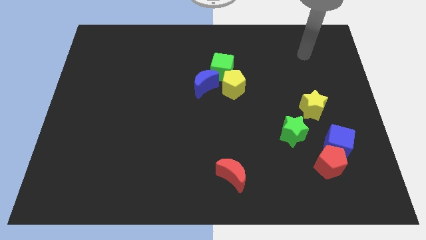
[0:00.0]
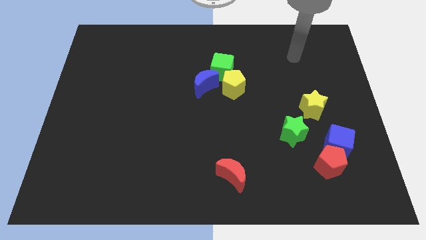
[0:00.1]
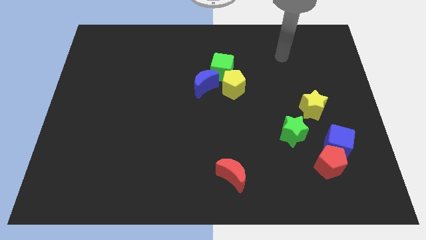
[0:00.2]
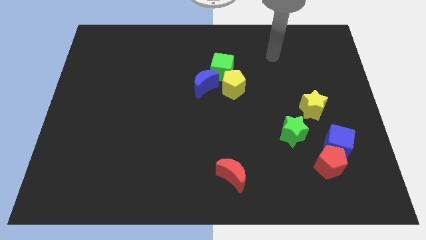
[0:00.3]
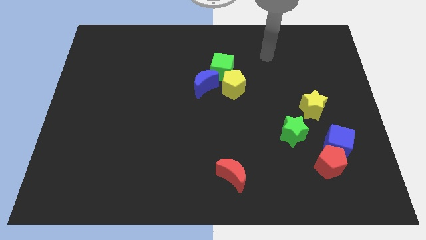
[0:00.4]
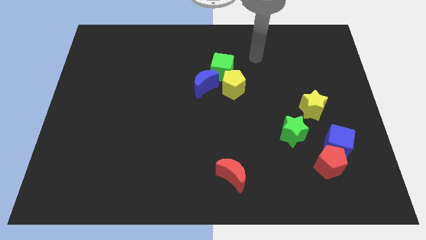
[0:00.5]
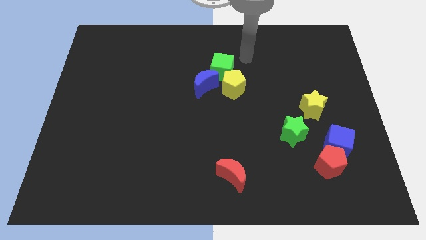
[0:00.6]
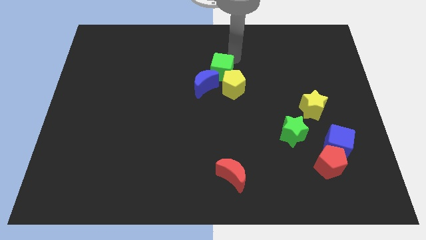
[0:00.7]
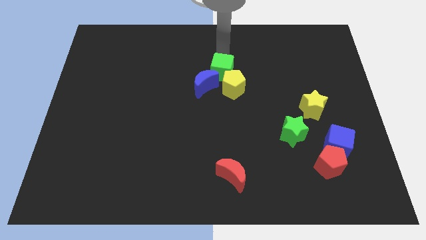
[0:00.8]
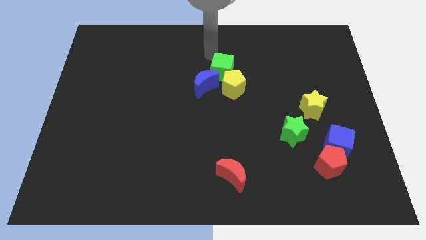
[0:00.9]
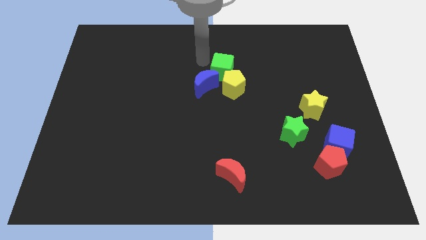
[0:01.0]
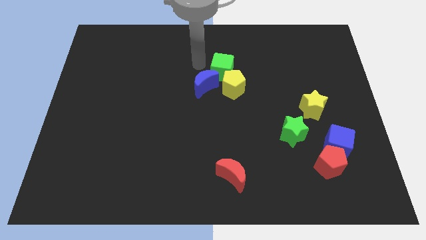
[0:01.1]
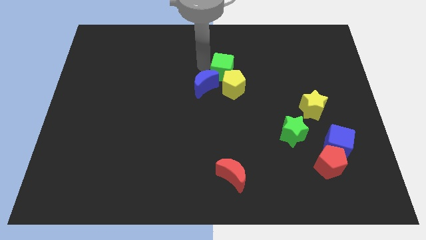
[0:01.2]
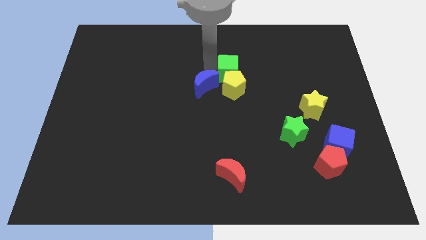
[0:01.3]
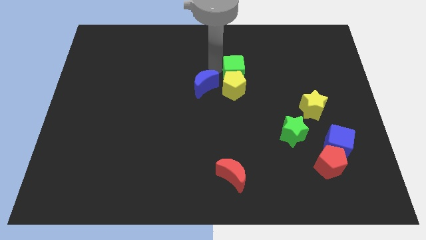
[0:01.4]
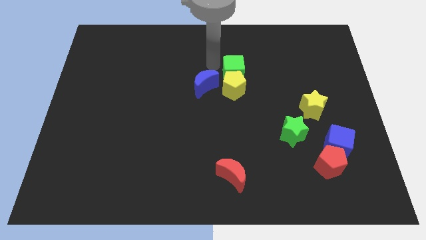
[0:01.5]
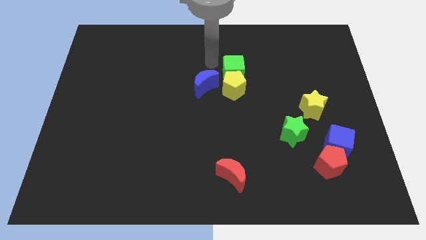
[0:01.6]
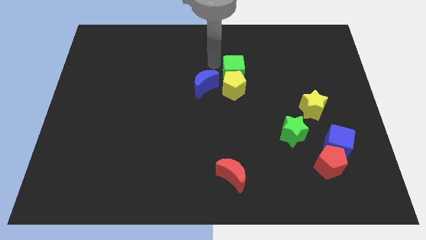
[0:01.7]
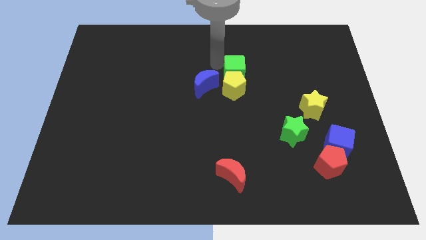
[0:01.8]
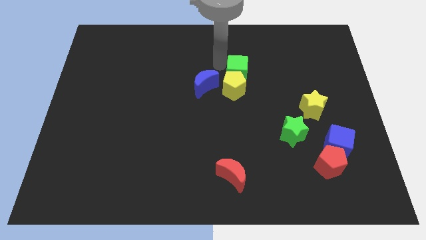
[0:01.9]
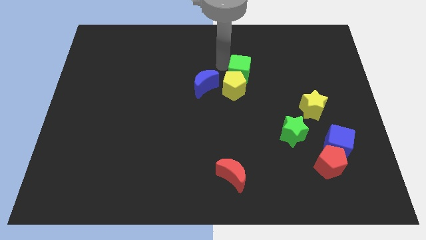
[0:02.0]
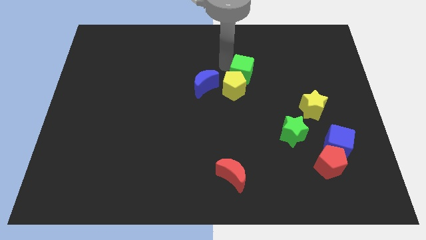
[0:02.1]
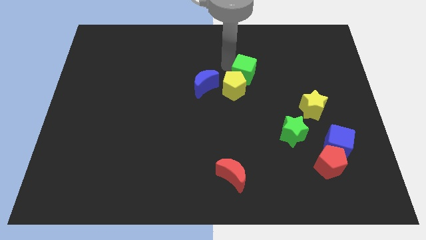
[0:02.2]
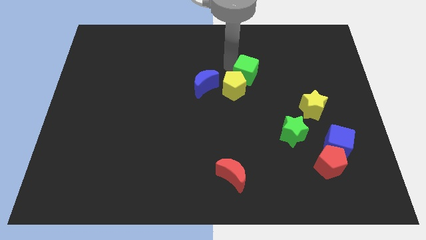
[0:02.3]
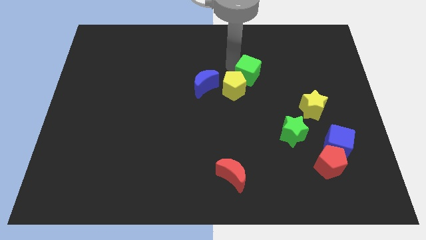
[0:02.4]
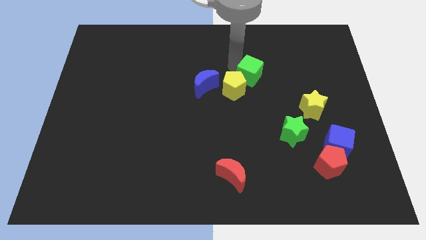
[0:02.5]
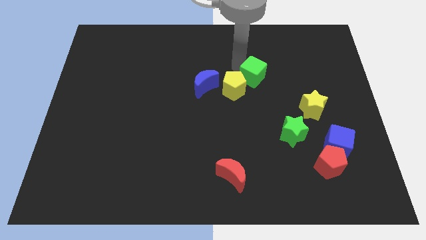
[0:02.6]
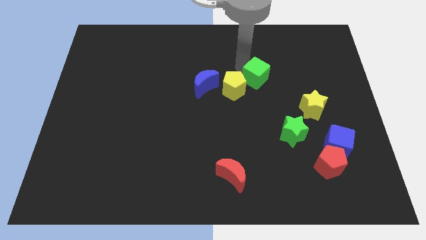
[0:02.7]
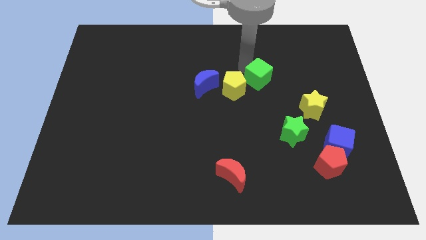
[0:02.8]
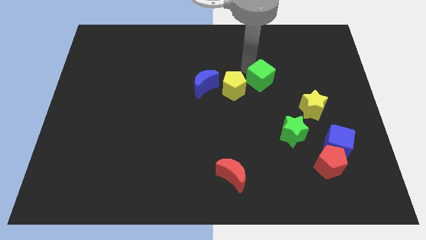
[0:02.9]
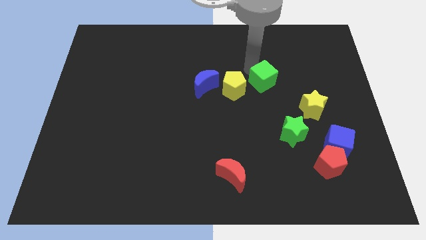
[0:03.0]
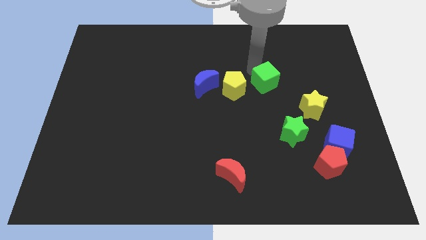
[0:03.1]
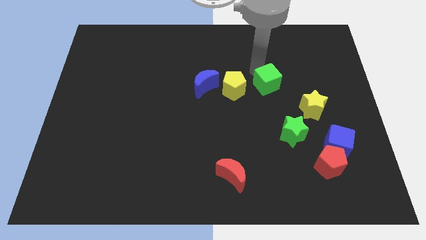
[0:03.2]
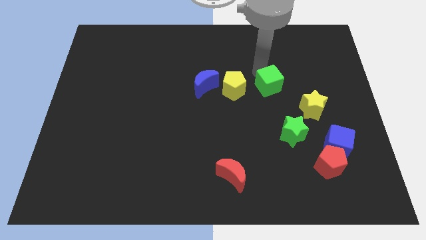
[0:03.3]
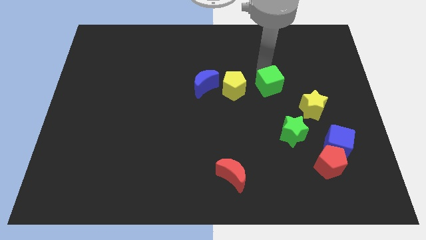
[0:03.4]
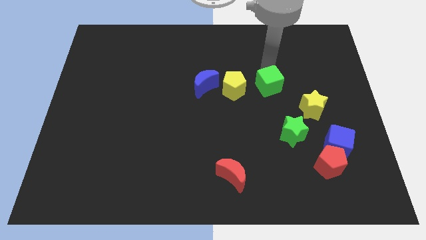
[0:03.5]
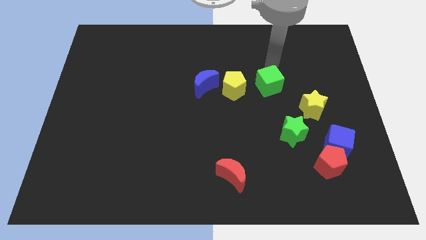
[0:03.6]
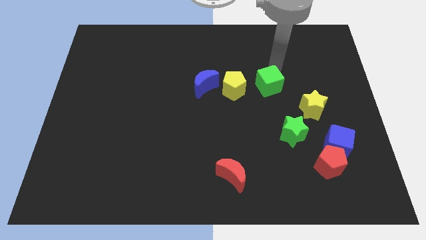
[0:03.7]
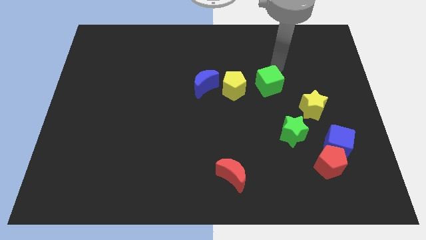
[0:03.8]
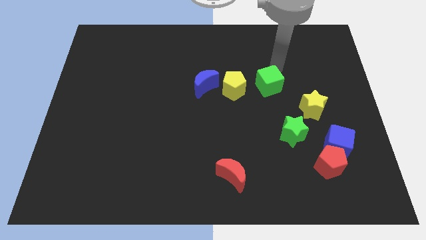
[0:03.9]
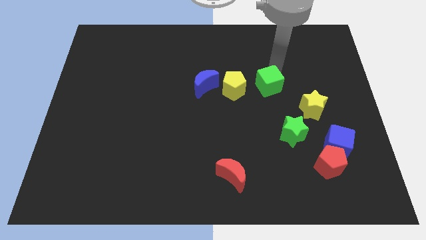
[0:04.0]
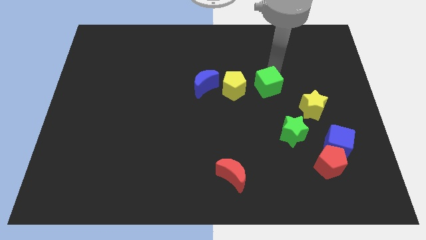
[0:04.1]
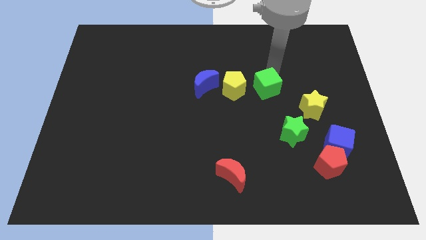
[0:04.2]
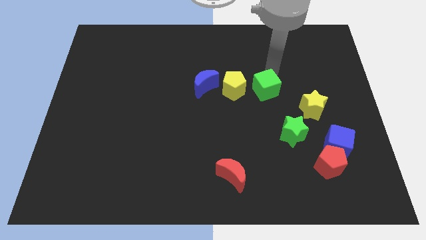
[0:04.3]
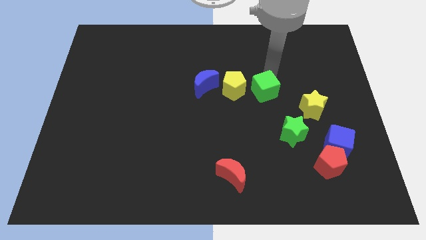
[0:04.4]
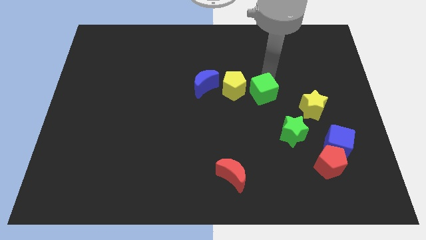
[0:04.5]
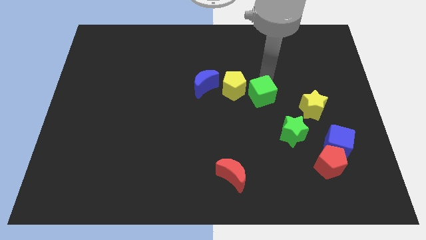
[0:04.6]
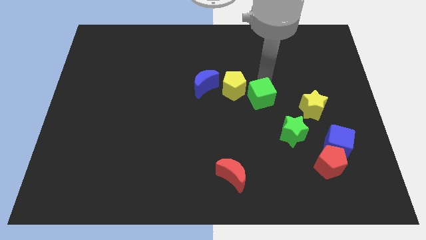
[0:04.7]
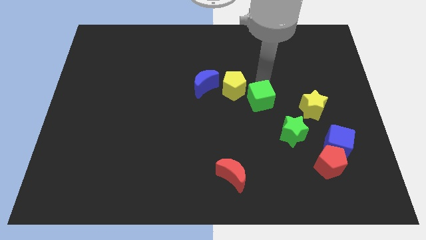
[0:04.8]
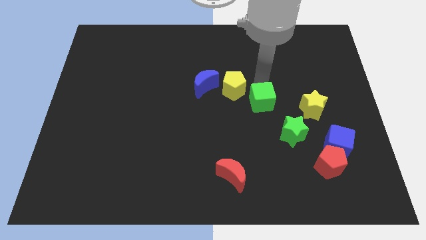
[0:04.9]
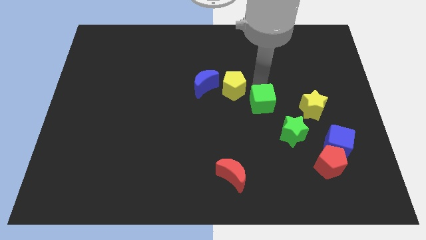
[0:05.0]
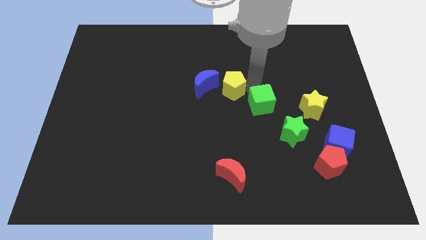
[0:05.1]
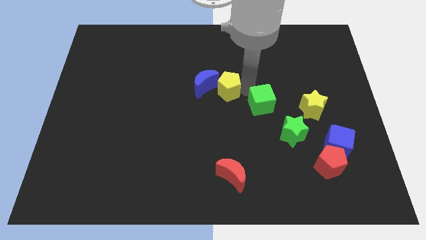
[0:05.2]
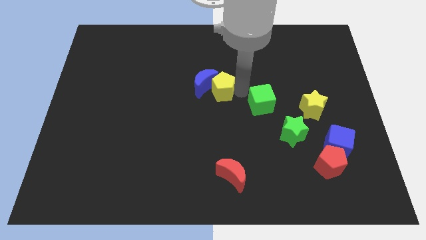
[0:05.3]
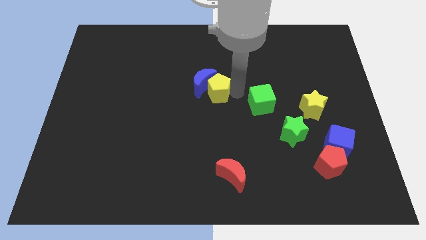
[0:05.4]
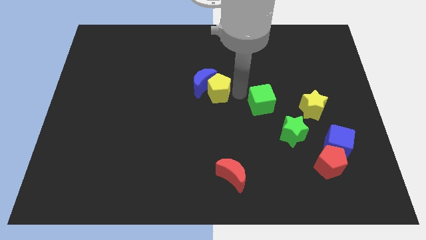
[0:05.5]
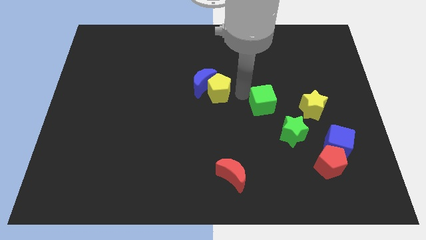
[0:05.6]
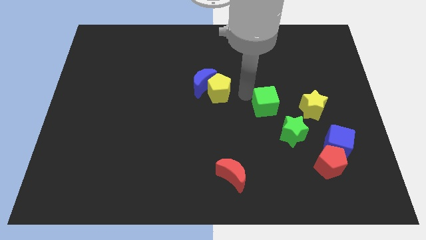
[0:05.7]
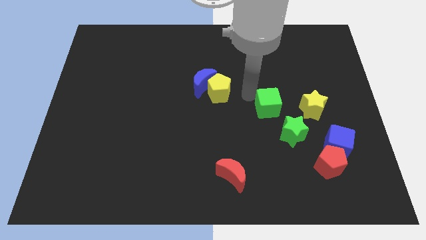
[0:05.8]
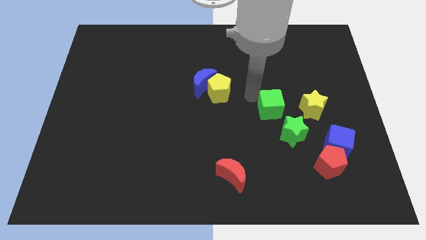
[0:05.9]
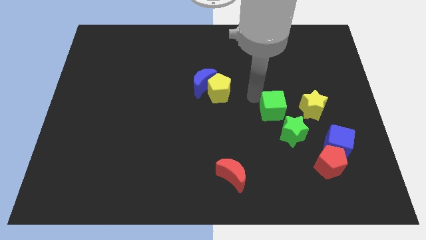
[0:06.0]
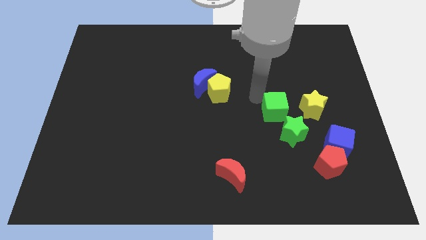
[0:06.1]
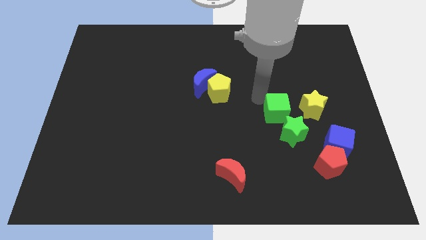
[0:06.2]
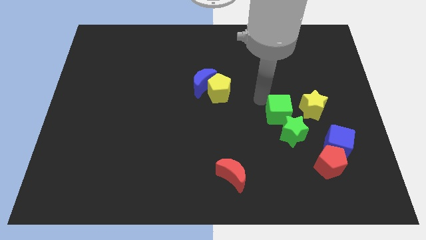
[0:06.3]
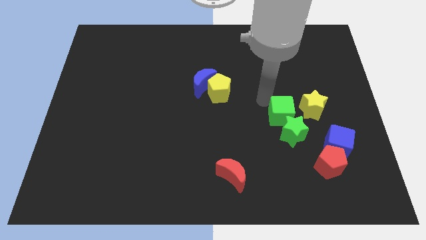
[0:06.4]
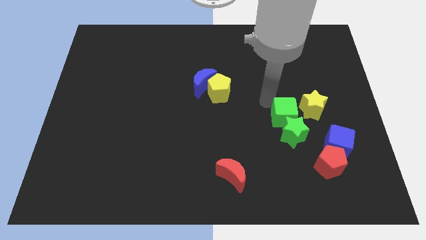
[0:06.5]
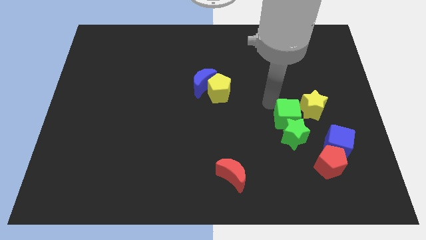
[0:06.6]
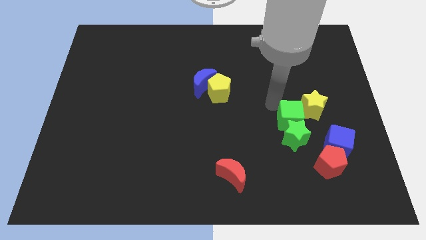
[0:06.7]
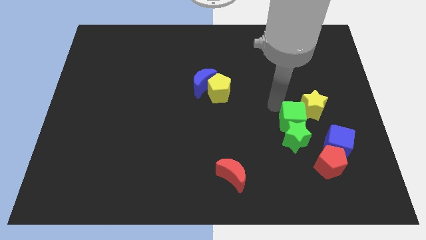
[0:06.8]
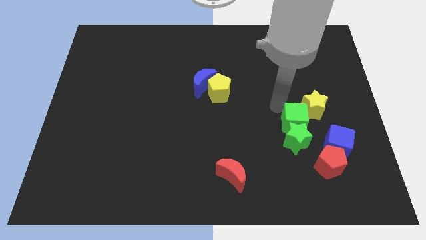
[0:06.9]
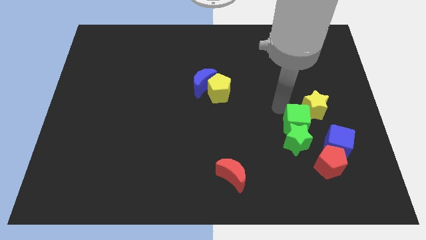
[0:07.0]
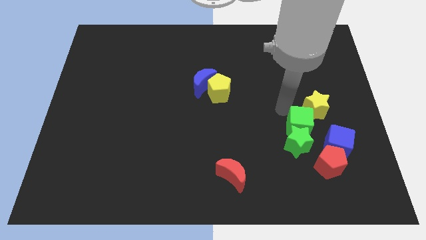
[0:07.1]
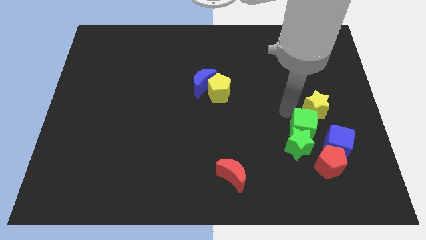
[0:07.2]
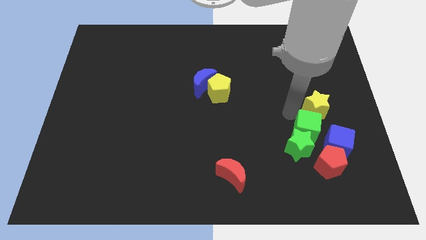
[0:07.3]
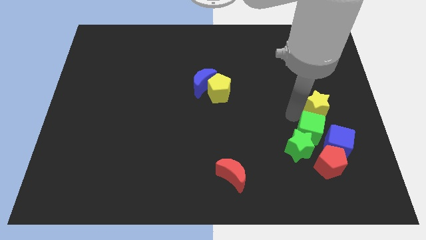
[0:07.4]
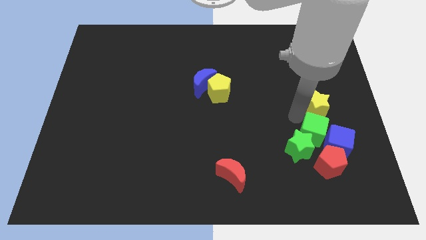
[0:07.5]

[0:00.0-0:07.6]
move the green cube to the blue cube
